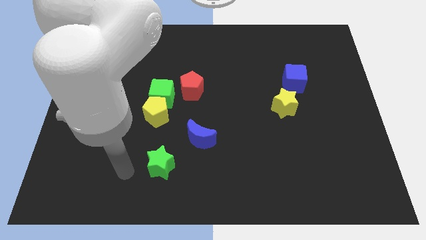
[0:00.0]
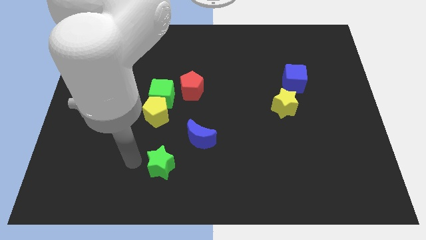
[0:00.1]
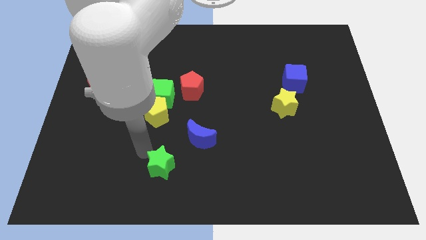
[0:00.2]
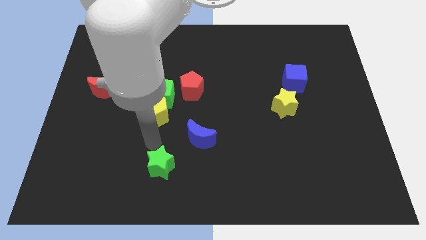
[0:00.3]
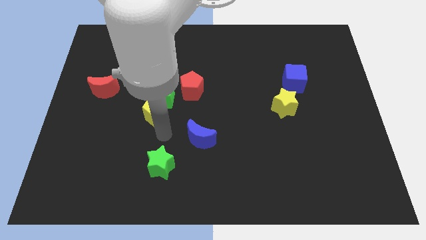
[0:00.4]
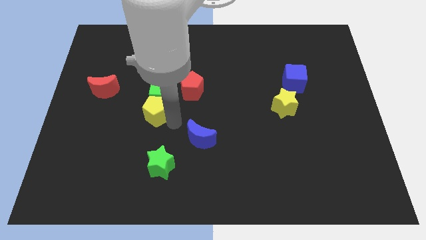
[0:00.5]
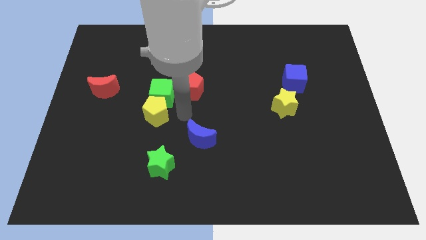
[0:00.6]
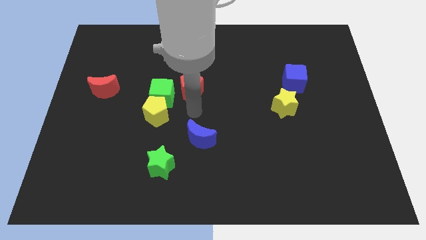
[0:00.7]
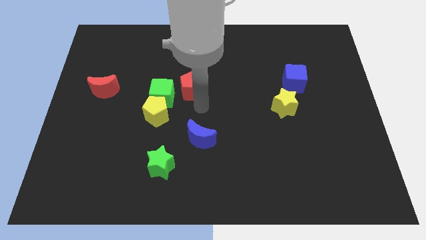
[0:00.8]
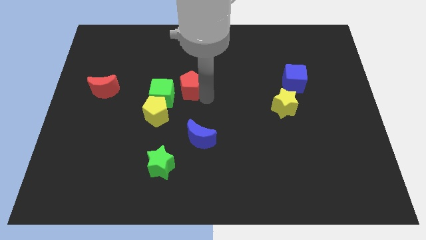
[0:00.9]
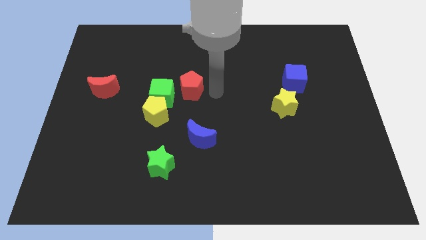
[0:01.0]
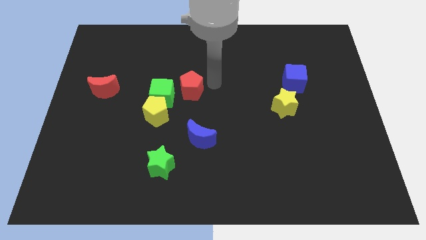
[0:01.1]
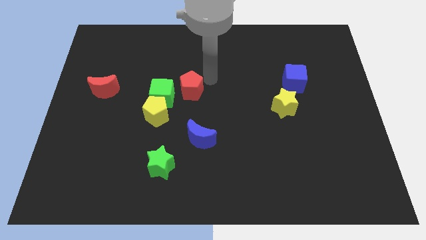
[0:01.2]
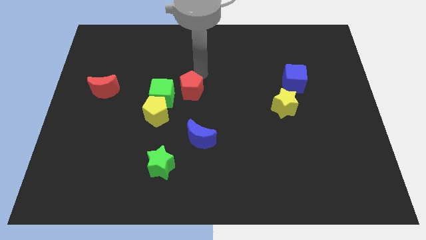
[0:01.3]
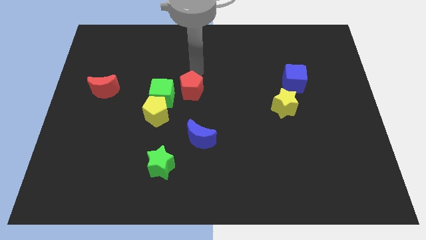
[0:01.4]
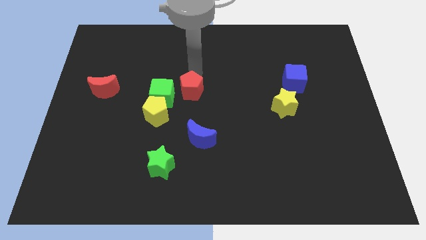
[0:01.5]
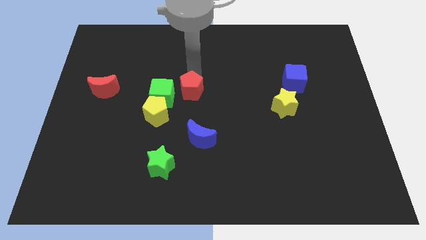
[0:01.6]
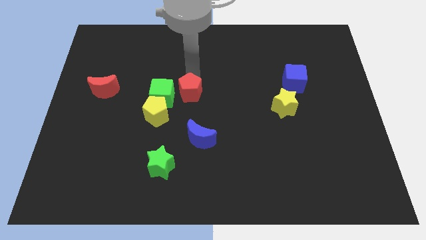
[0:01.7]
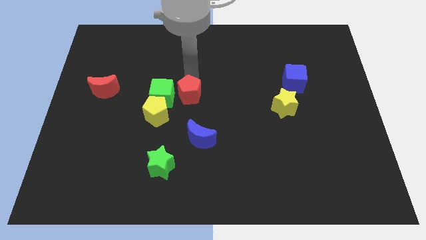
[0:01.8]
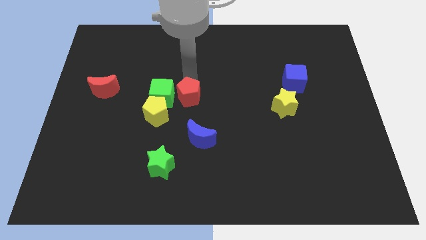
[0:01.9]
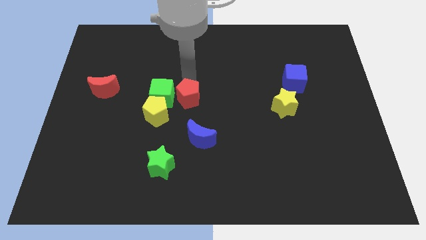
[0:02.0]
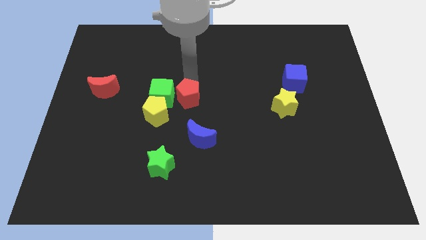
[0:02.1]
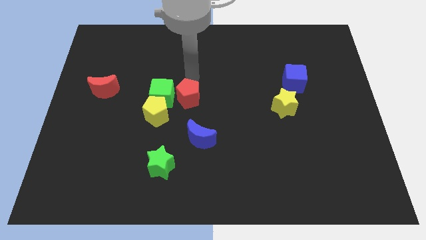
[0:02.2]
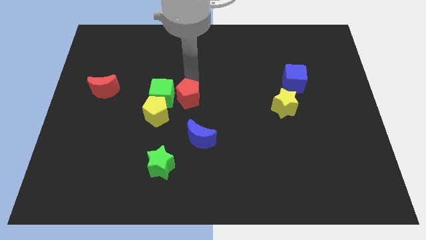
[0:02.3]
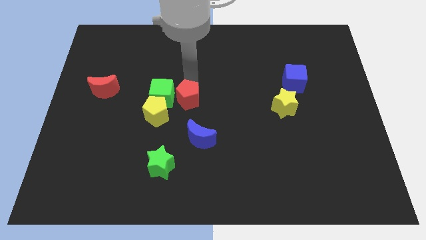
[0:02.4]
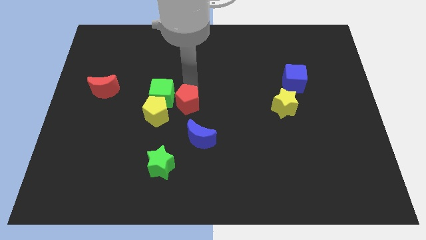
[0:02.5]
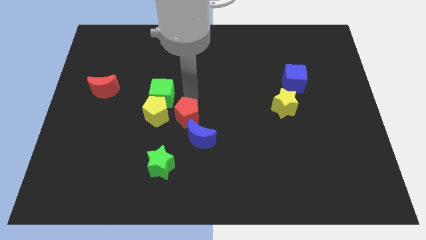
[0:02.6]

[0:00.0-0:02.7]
slide the red pentagon a little bit downwards

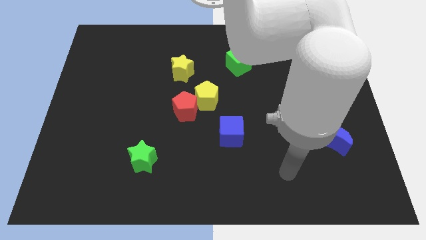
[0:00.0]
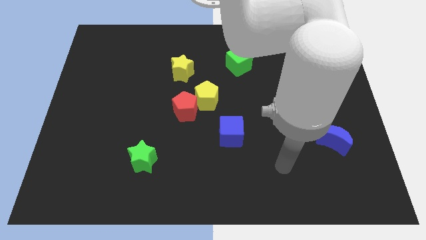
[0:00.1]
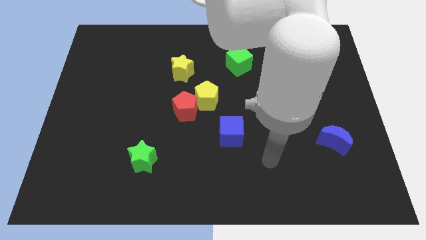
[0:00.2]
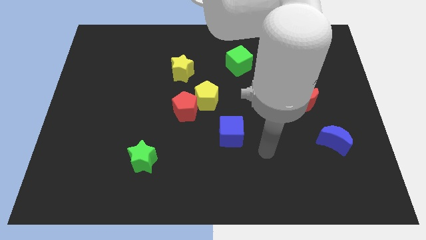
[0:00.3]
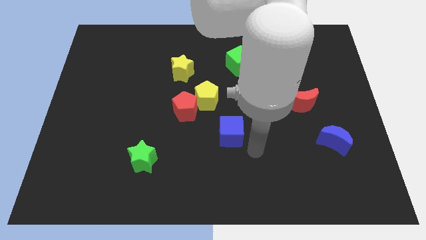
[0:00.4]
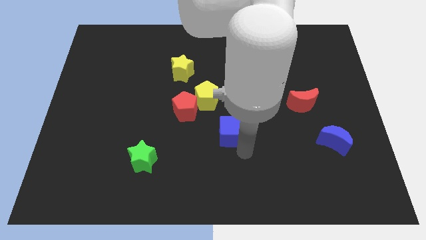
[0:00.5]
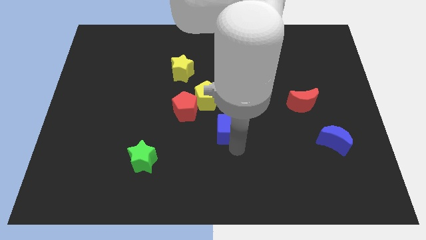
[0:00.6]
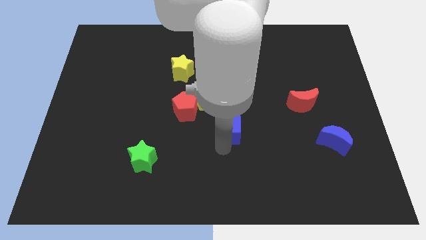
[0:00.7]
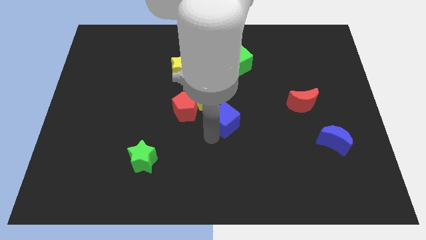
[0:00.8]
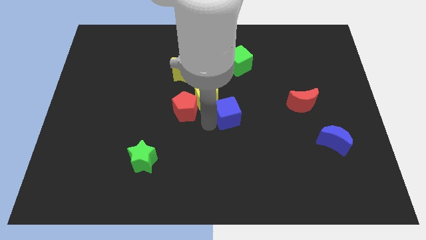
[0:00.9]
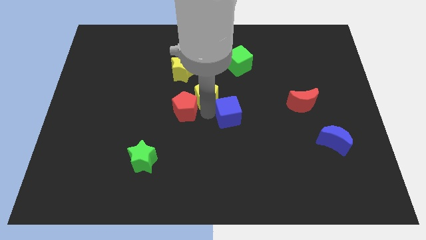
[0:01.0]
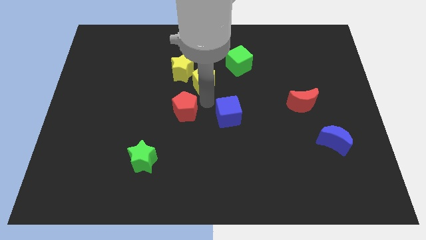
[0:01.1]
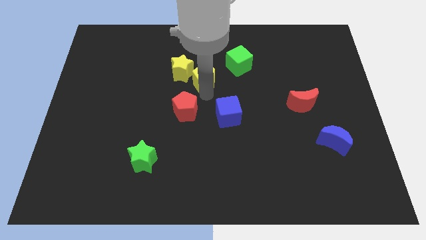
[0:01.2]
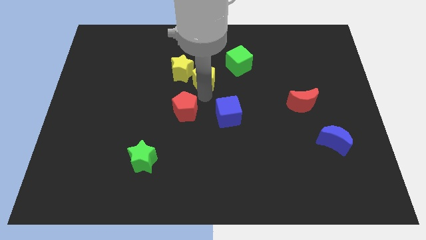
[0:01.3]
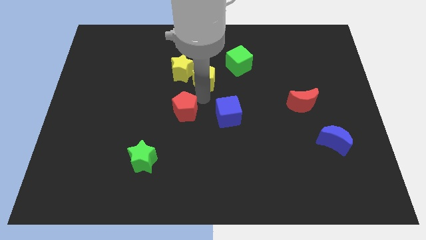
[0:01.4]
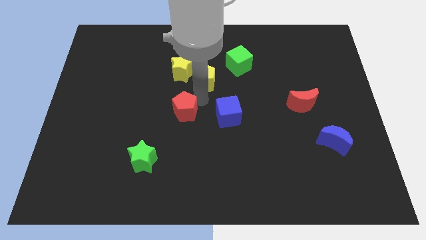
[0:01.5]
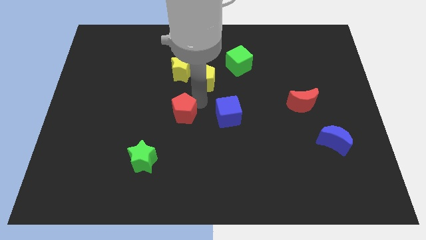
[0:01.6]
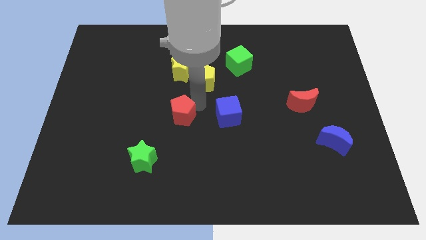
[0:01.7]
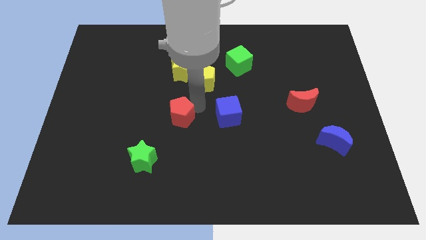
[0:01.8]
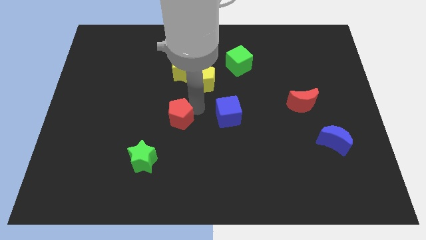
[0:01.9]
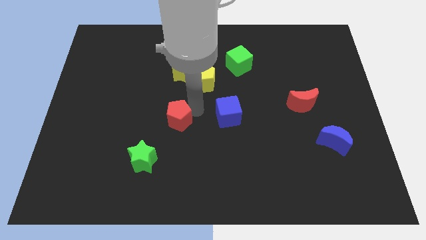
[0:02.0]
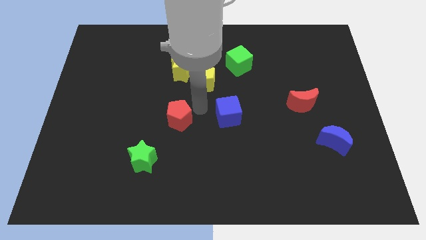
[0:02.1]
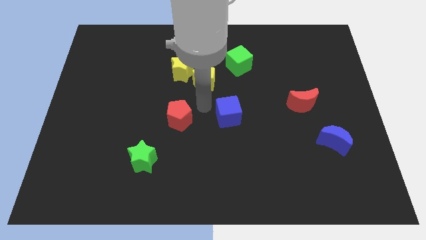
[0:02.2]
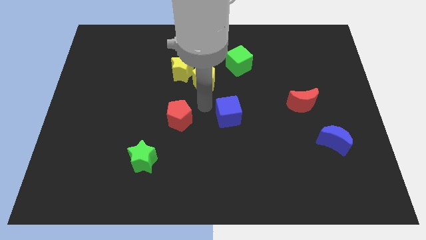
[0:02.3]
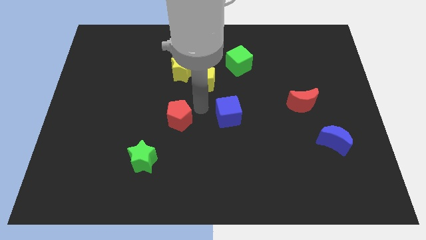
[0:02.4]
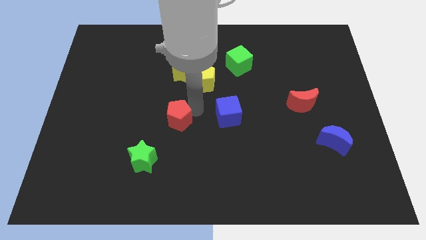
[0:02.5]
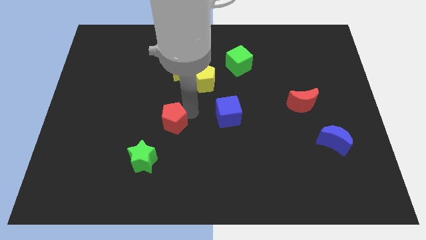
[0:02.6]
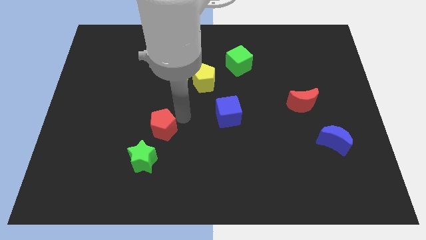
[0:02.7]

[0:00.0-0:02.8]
push the red pentagon down and then to the left a little bit

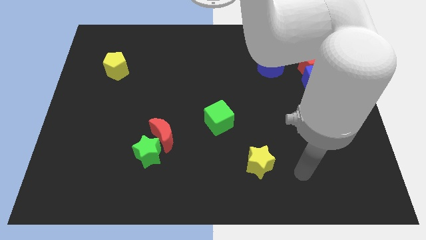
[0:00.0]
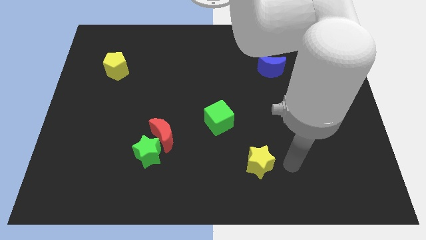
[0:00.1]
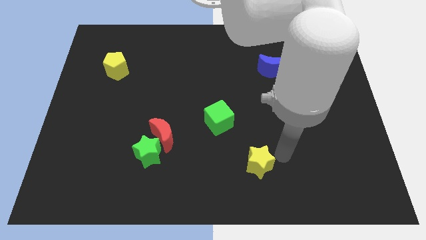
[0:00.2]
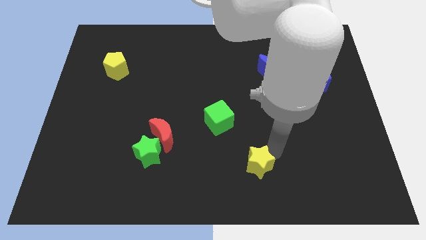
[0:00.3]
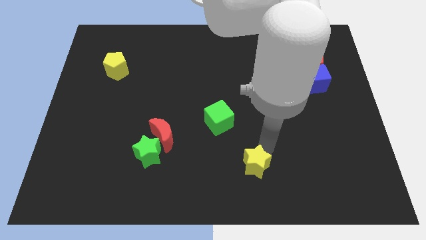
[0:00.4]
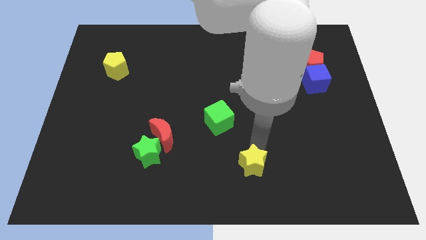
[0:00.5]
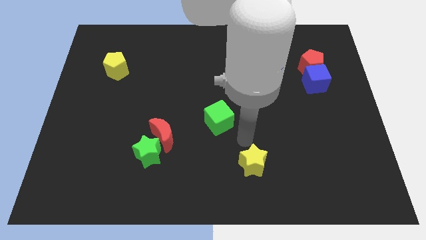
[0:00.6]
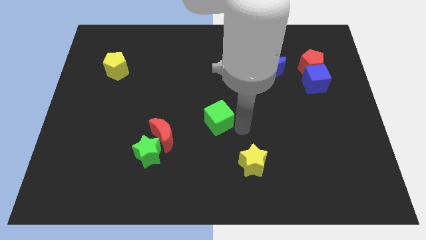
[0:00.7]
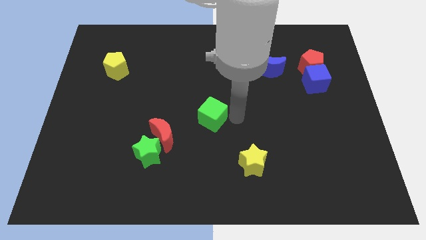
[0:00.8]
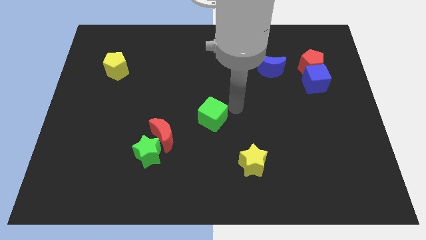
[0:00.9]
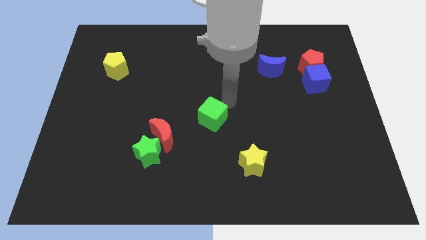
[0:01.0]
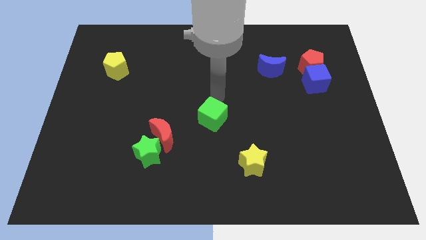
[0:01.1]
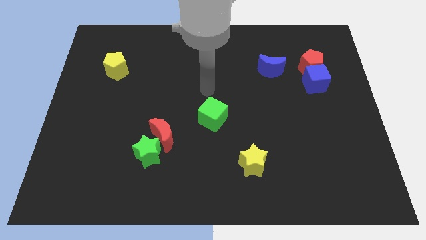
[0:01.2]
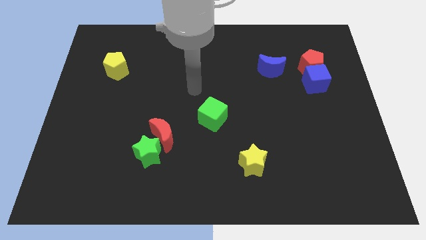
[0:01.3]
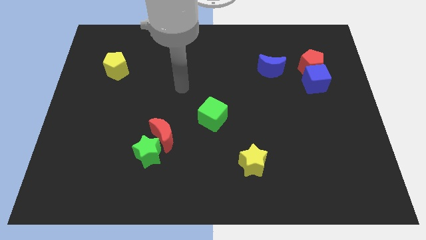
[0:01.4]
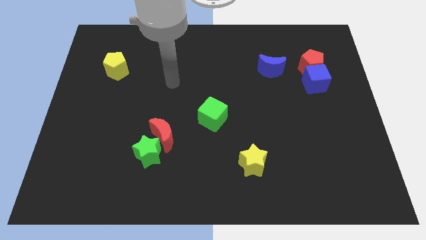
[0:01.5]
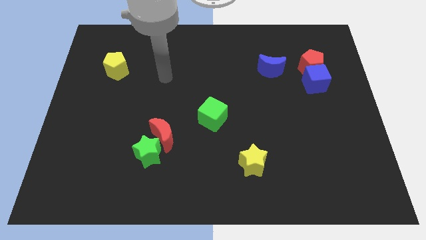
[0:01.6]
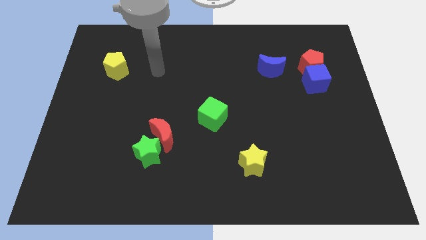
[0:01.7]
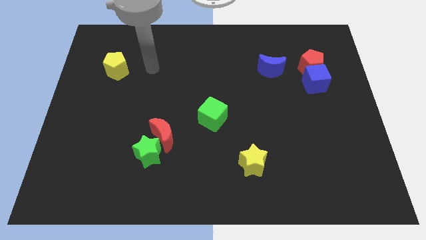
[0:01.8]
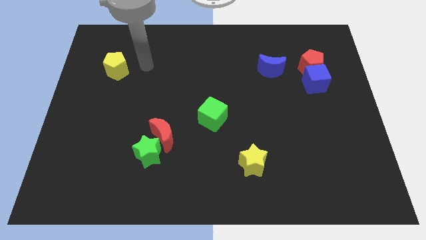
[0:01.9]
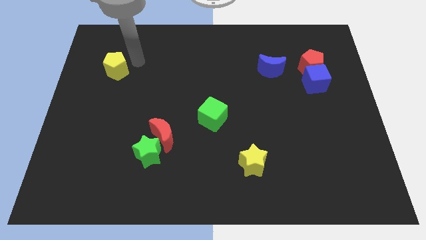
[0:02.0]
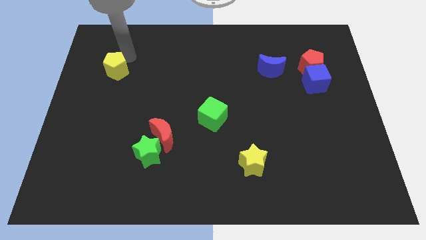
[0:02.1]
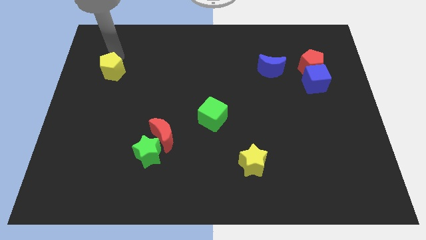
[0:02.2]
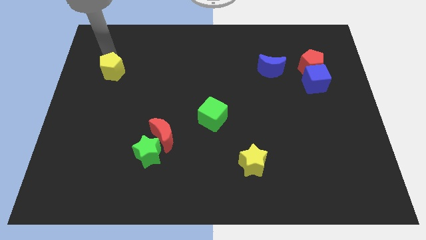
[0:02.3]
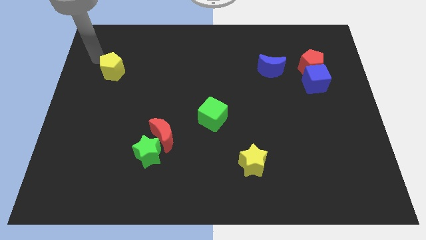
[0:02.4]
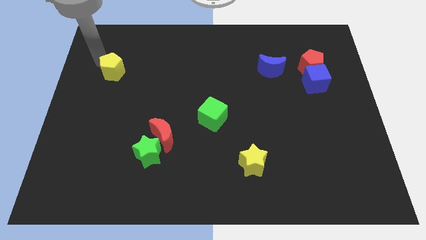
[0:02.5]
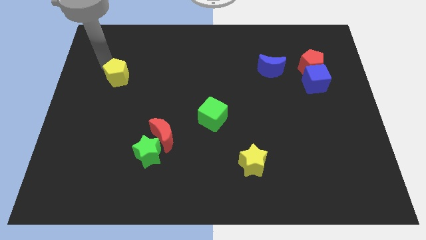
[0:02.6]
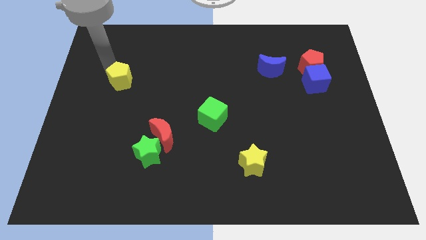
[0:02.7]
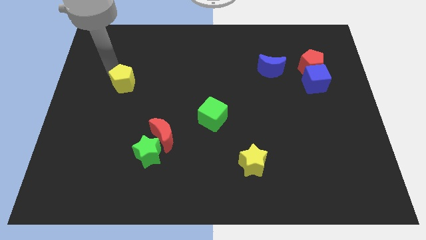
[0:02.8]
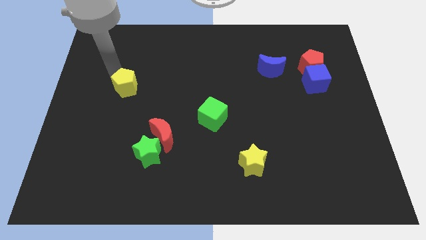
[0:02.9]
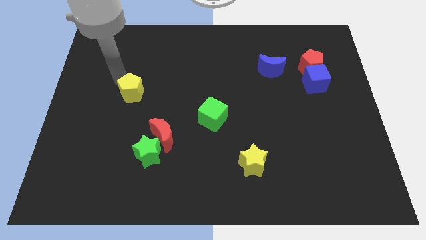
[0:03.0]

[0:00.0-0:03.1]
push the yellow pentagon down and to the right slightly
